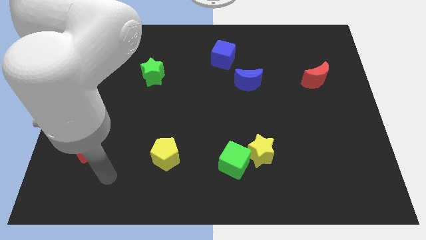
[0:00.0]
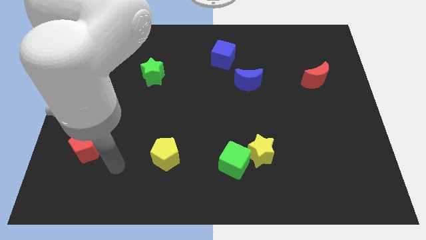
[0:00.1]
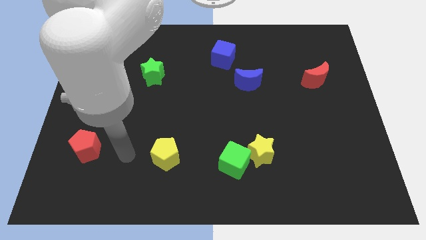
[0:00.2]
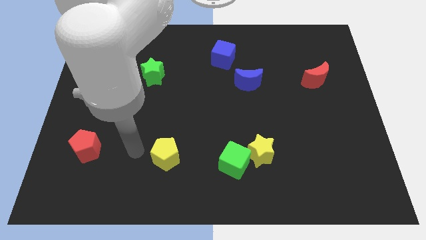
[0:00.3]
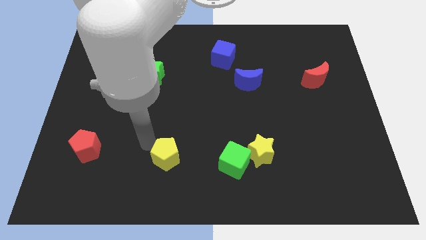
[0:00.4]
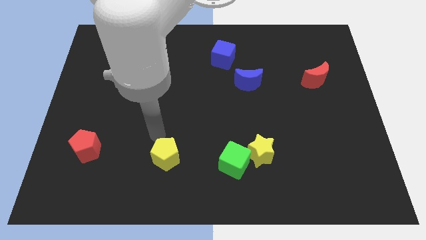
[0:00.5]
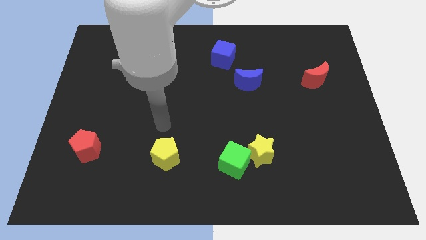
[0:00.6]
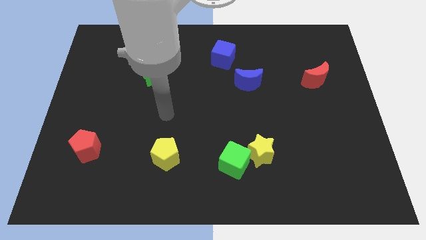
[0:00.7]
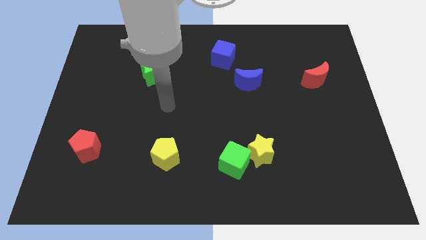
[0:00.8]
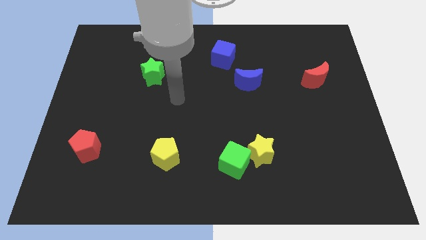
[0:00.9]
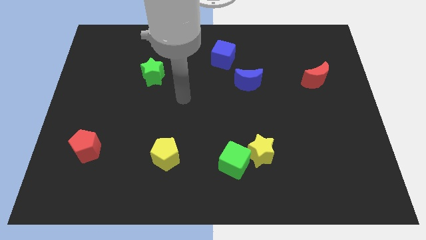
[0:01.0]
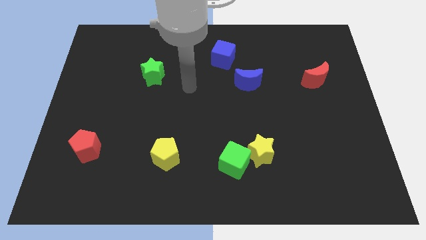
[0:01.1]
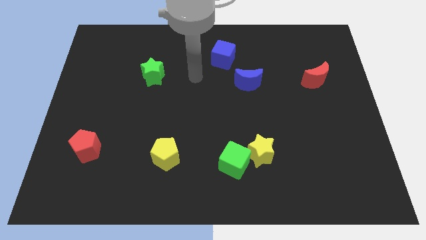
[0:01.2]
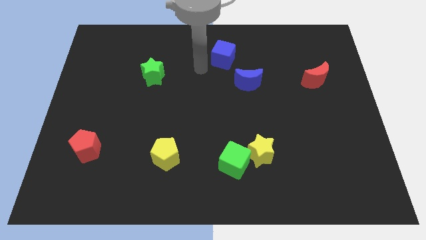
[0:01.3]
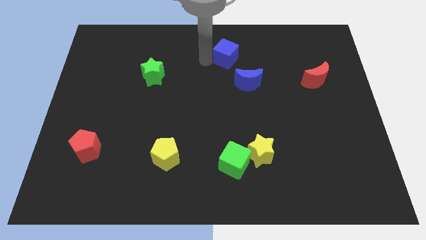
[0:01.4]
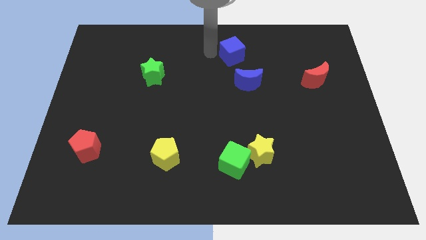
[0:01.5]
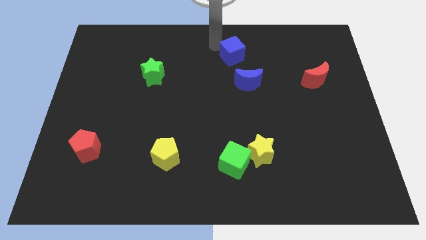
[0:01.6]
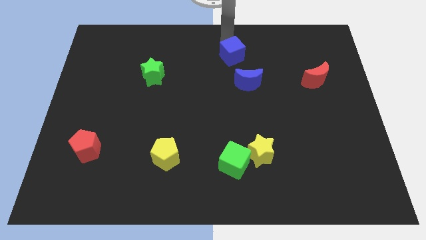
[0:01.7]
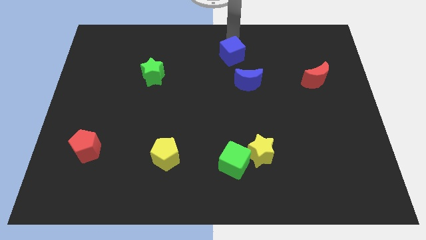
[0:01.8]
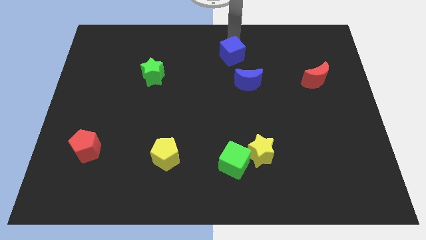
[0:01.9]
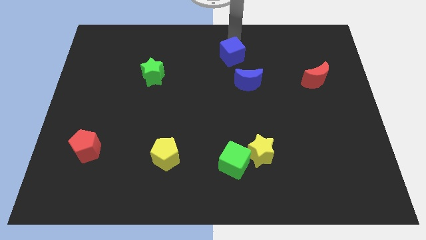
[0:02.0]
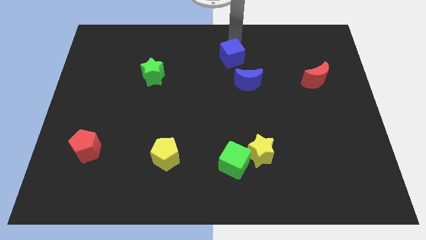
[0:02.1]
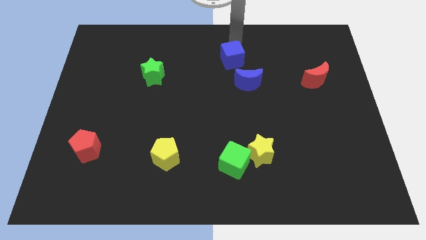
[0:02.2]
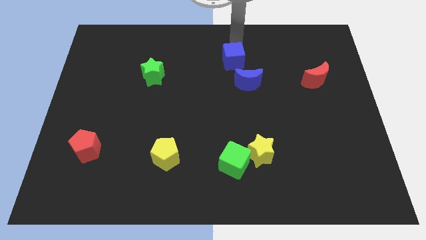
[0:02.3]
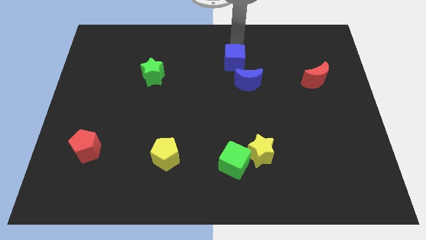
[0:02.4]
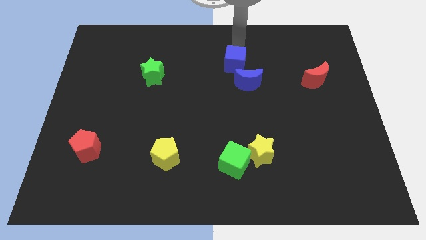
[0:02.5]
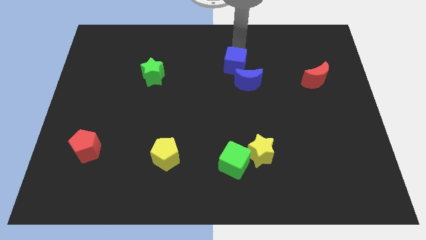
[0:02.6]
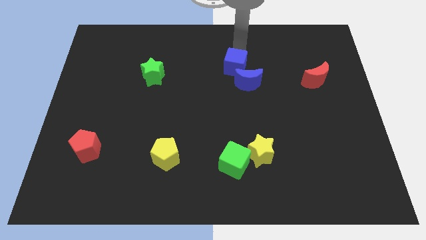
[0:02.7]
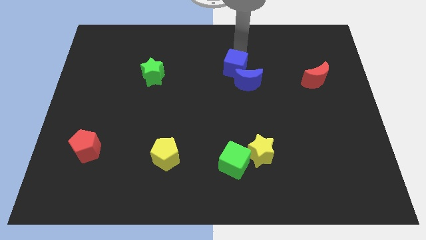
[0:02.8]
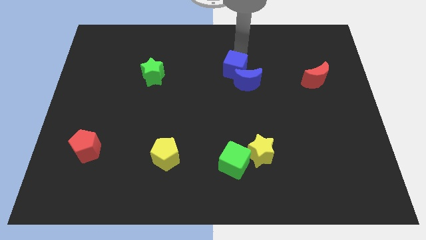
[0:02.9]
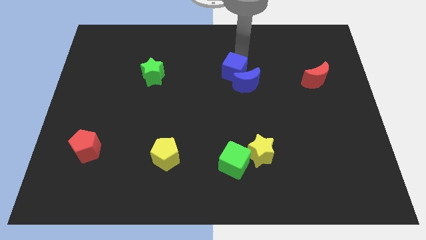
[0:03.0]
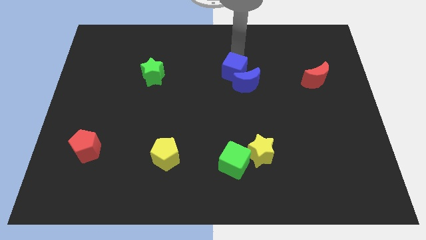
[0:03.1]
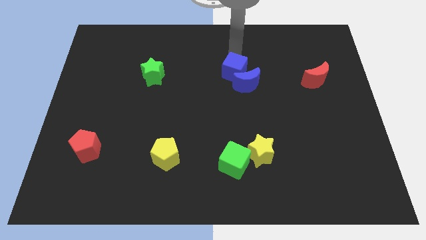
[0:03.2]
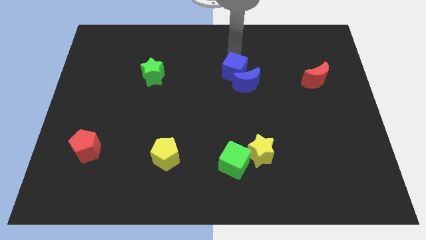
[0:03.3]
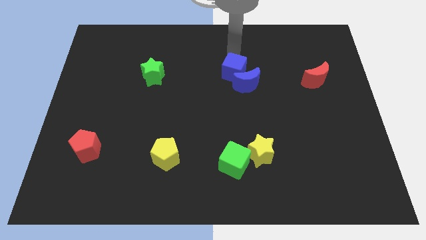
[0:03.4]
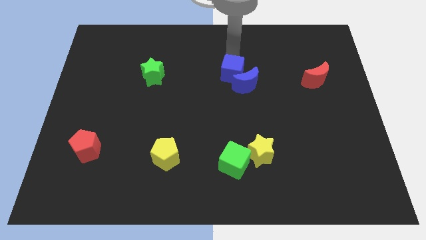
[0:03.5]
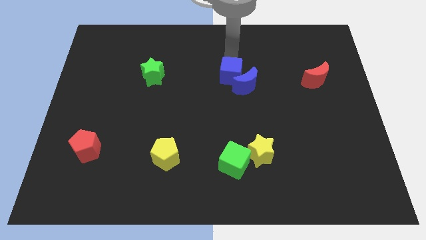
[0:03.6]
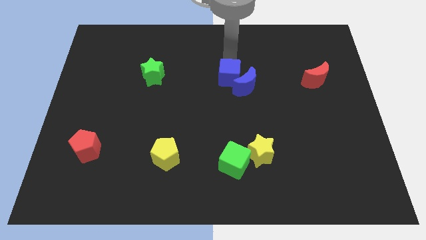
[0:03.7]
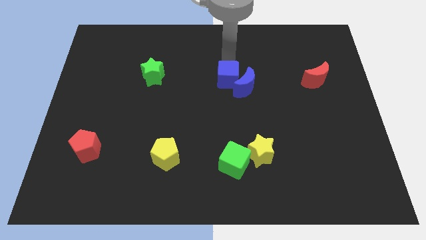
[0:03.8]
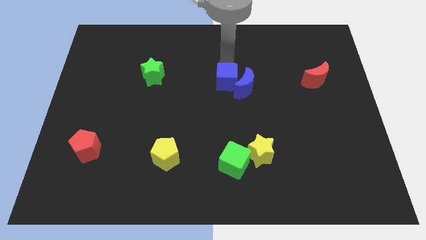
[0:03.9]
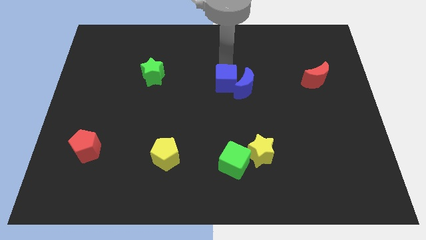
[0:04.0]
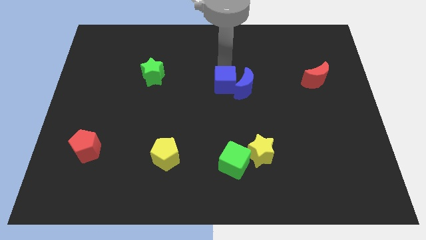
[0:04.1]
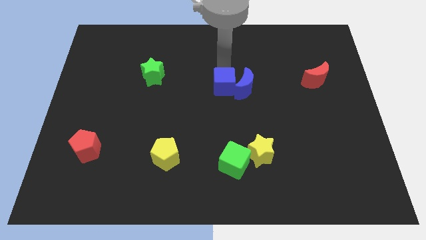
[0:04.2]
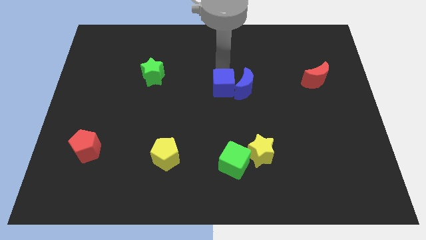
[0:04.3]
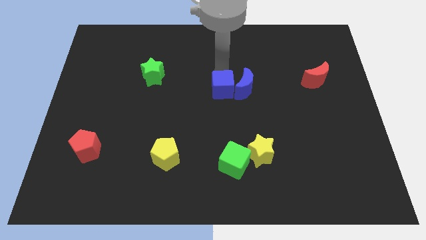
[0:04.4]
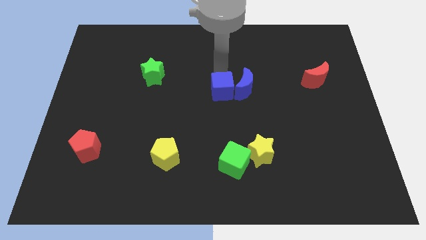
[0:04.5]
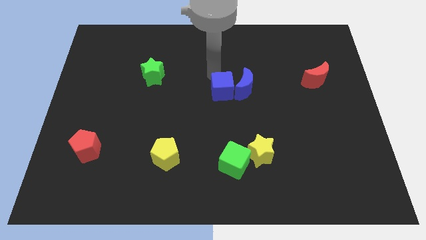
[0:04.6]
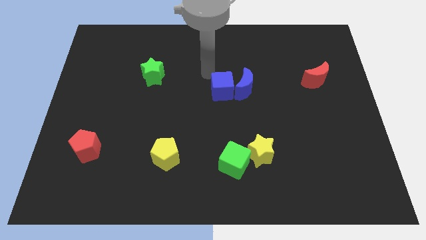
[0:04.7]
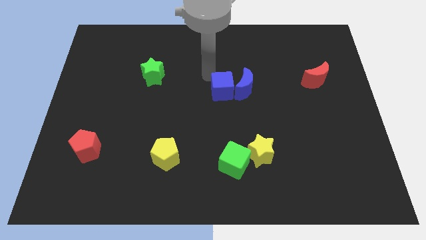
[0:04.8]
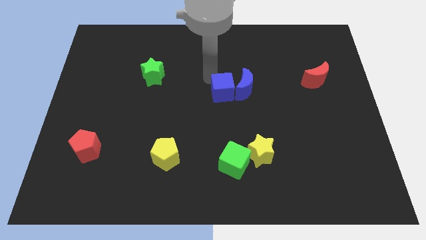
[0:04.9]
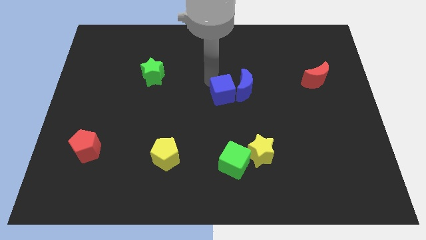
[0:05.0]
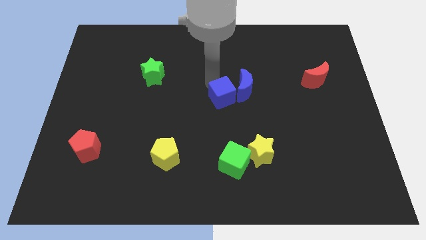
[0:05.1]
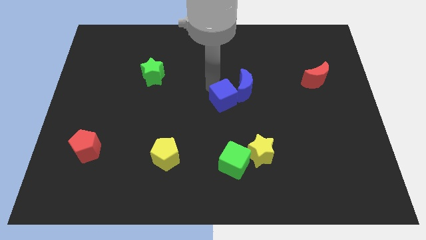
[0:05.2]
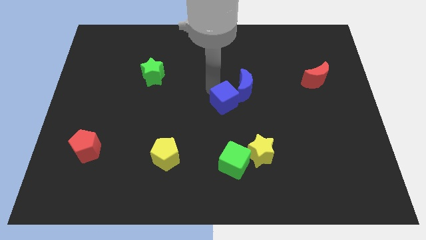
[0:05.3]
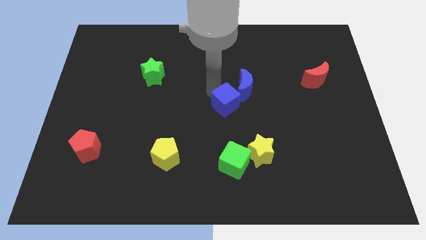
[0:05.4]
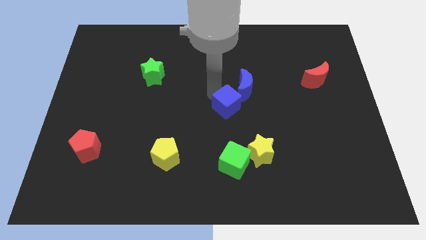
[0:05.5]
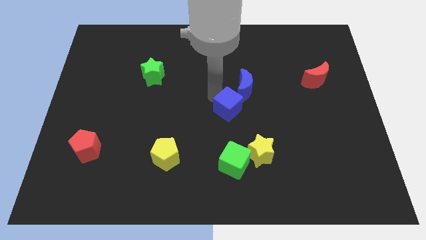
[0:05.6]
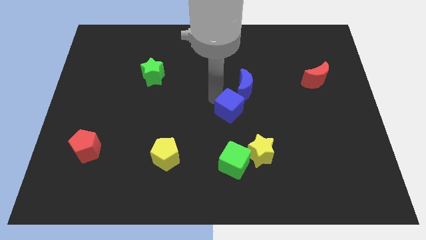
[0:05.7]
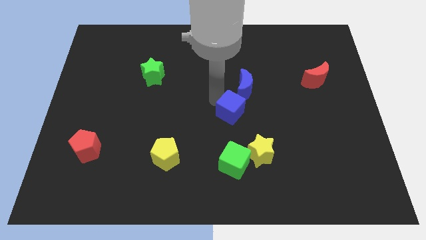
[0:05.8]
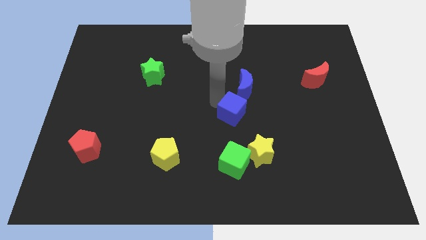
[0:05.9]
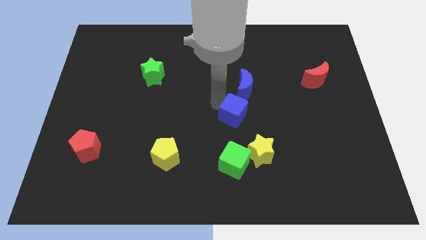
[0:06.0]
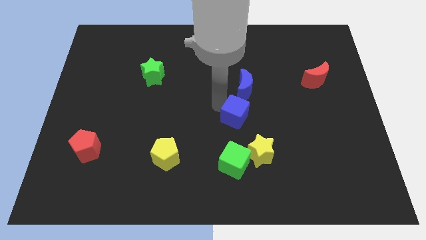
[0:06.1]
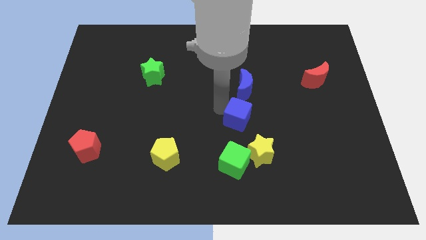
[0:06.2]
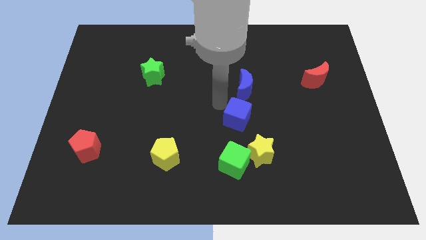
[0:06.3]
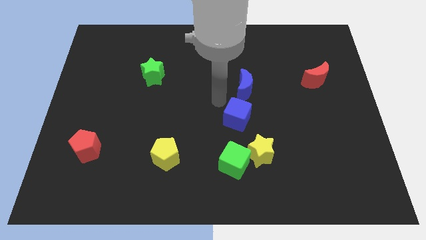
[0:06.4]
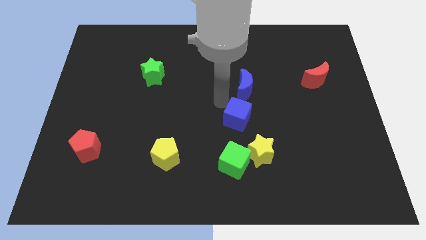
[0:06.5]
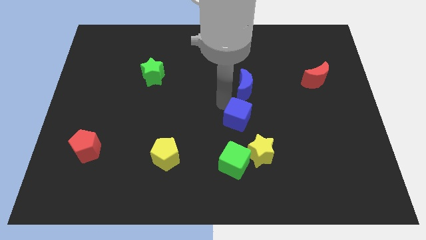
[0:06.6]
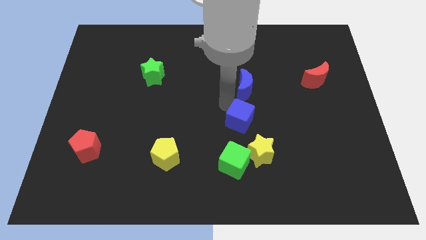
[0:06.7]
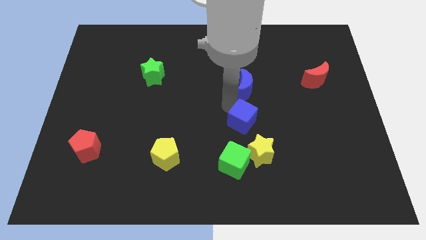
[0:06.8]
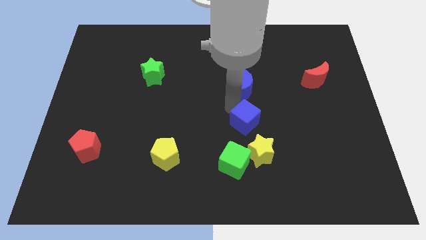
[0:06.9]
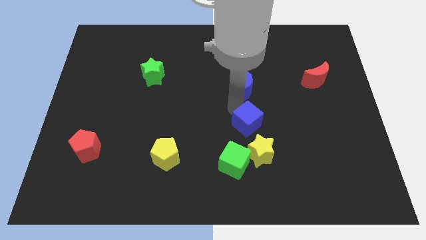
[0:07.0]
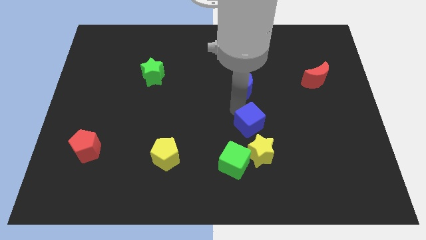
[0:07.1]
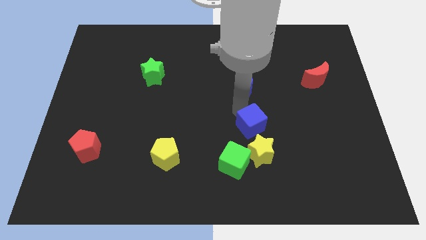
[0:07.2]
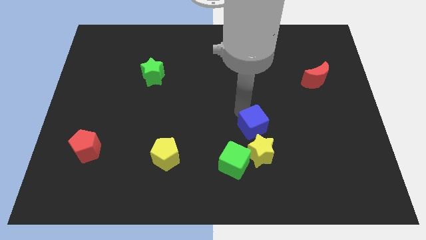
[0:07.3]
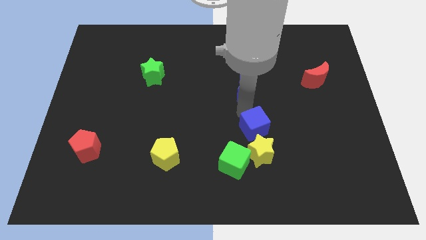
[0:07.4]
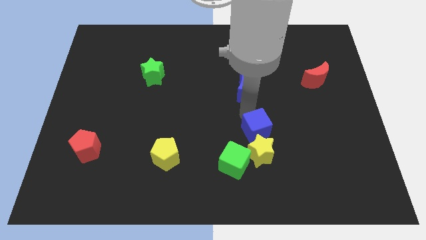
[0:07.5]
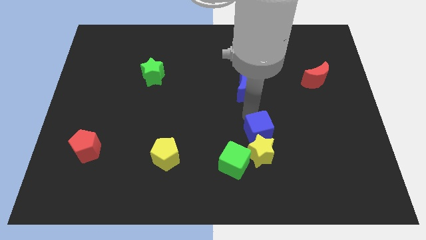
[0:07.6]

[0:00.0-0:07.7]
push the blue cube towards the yellow star
